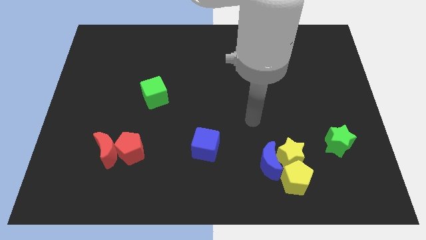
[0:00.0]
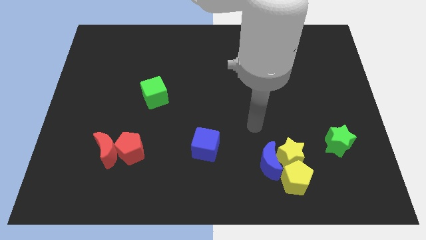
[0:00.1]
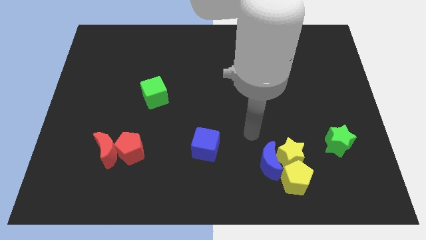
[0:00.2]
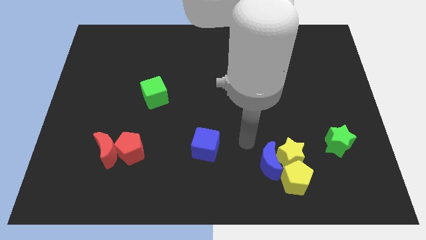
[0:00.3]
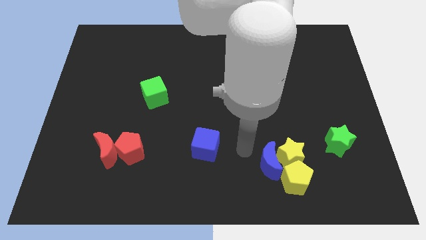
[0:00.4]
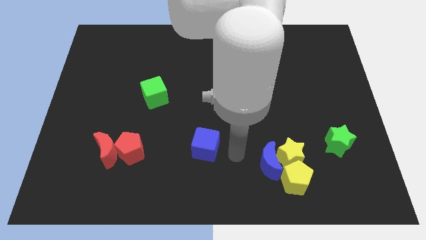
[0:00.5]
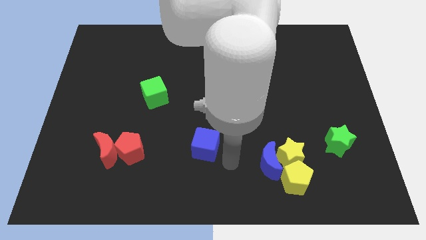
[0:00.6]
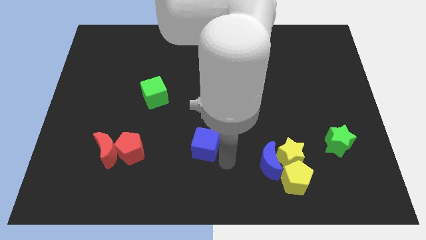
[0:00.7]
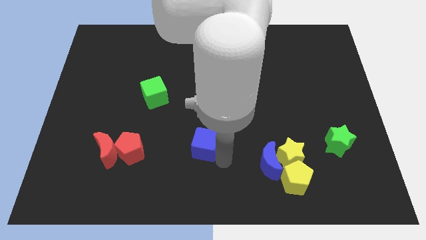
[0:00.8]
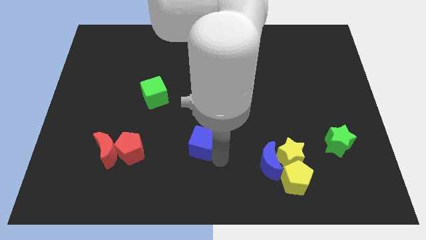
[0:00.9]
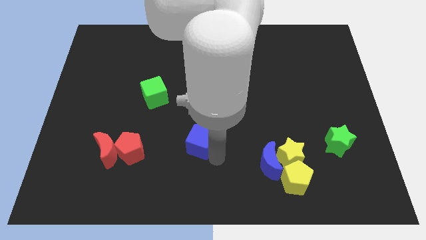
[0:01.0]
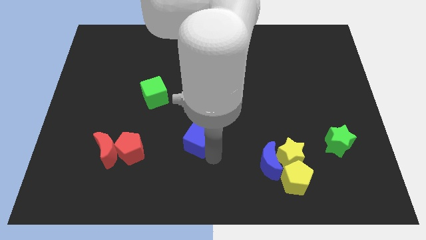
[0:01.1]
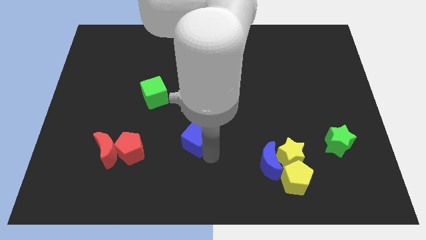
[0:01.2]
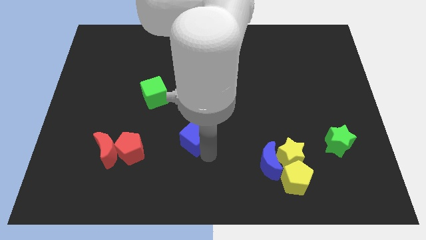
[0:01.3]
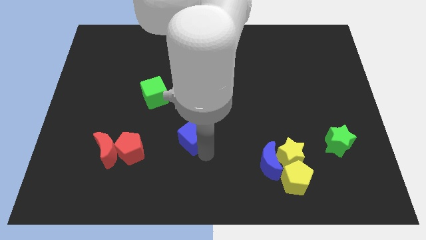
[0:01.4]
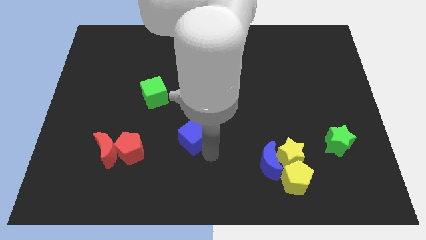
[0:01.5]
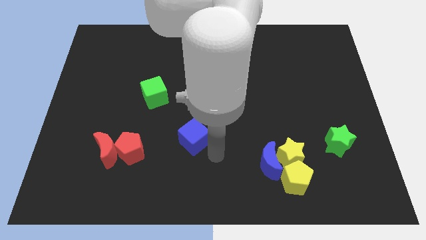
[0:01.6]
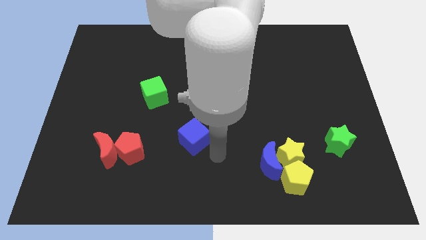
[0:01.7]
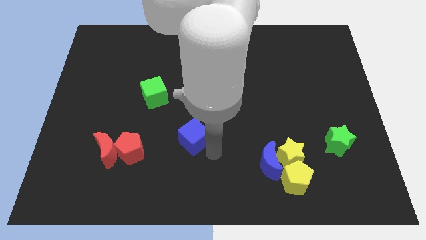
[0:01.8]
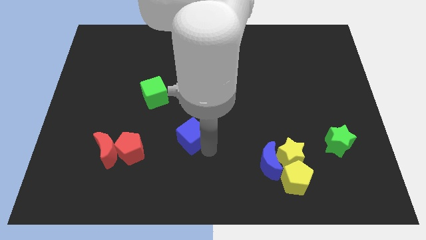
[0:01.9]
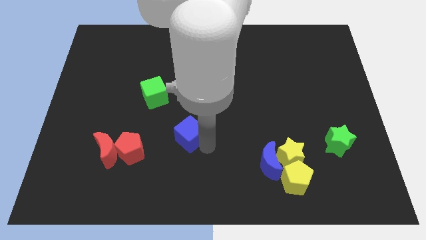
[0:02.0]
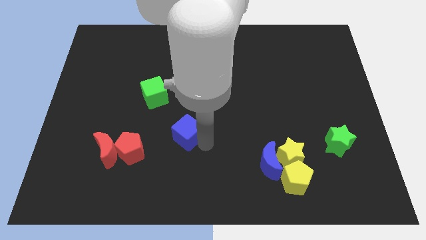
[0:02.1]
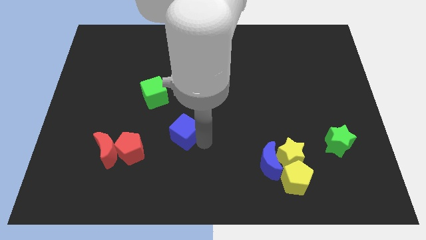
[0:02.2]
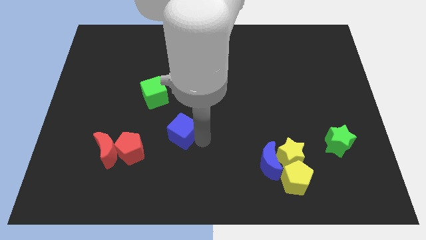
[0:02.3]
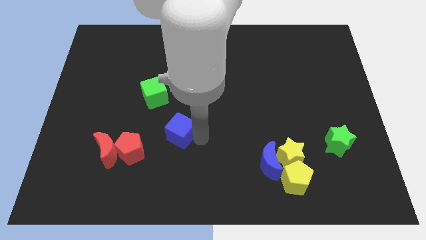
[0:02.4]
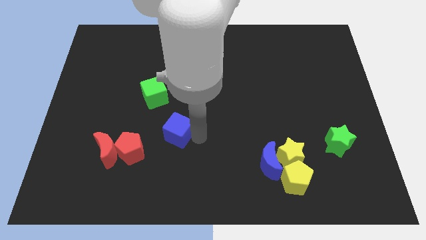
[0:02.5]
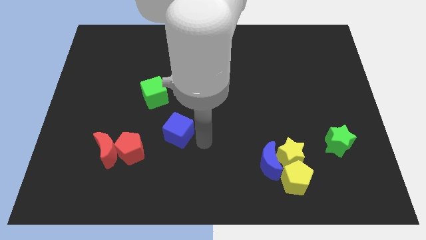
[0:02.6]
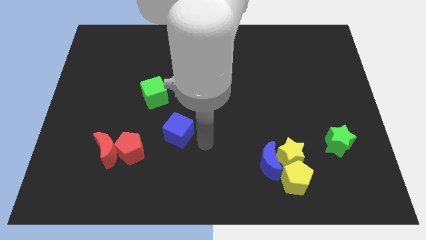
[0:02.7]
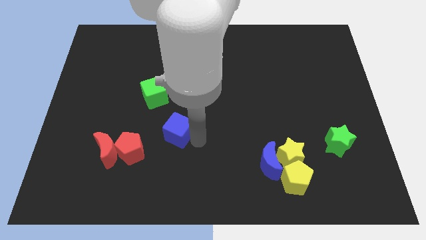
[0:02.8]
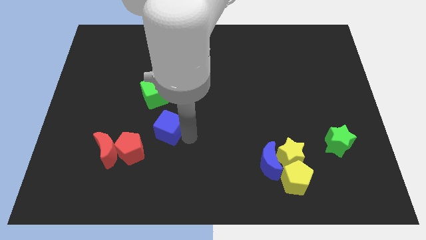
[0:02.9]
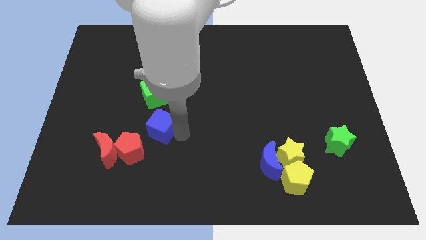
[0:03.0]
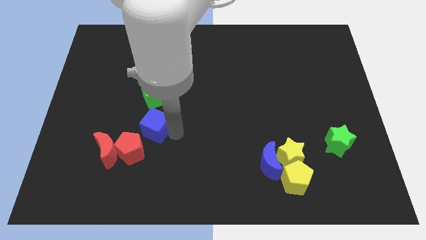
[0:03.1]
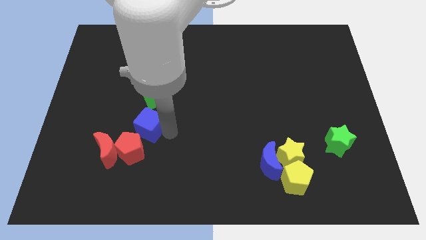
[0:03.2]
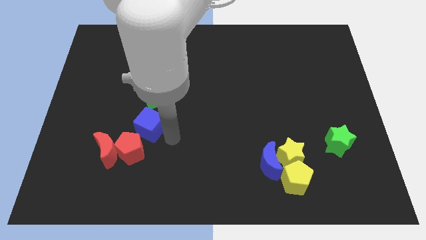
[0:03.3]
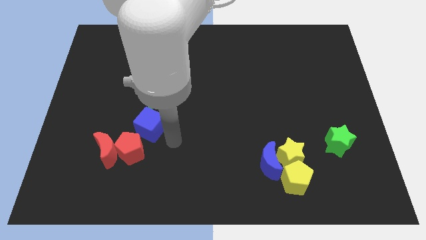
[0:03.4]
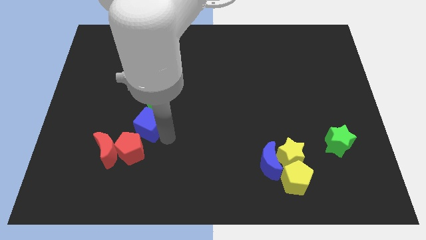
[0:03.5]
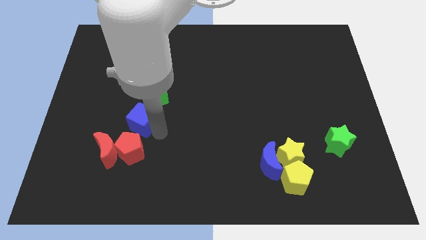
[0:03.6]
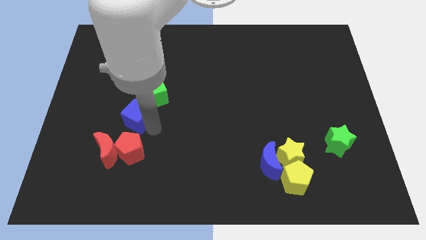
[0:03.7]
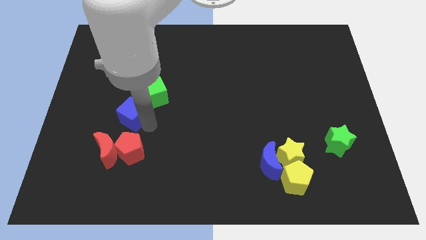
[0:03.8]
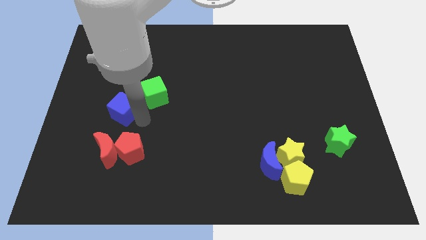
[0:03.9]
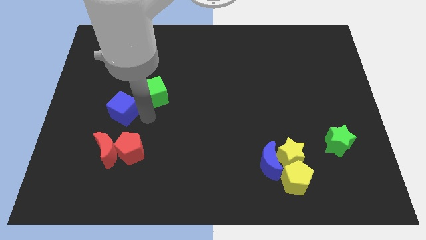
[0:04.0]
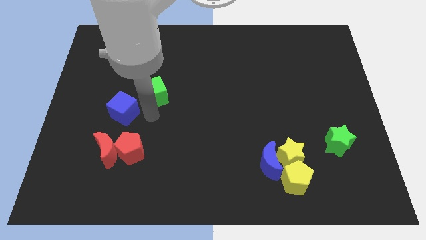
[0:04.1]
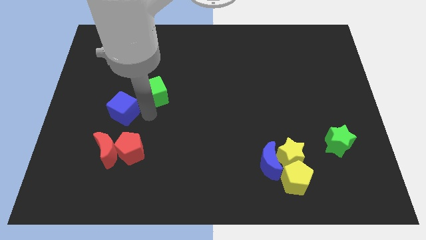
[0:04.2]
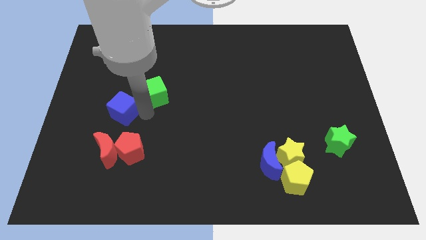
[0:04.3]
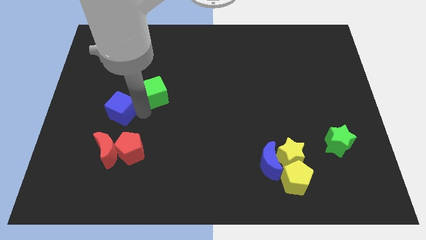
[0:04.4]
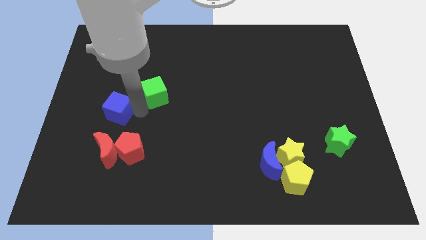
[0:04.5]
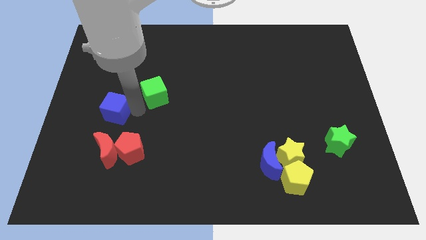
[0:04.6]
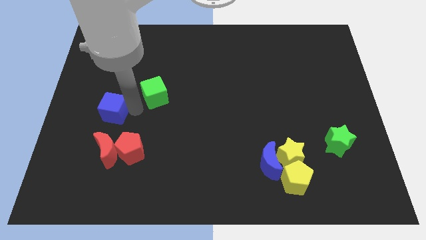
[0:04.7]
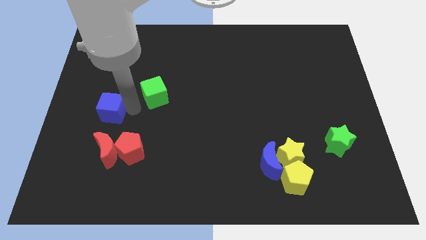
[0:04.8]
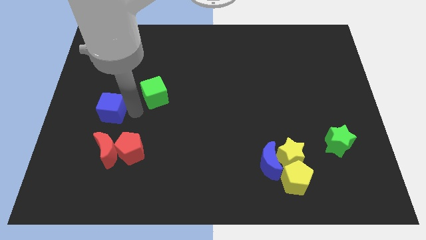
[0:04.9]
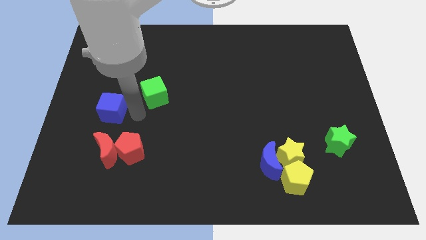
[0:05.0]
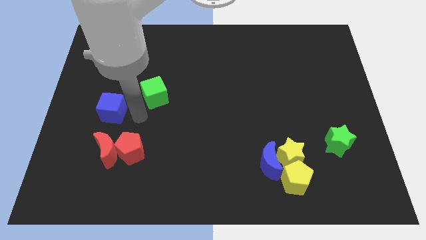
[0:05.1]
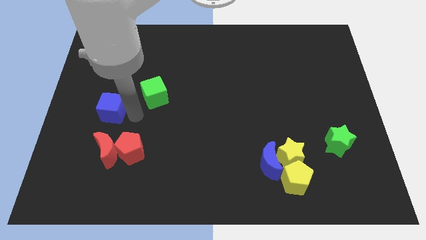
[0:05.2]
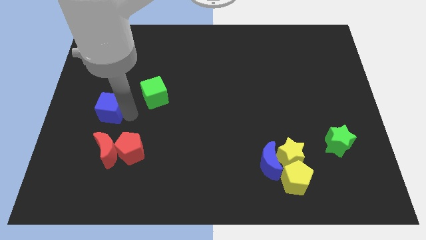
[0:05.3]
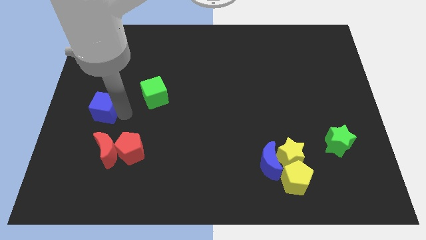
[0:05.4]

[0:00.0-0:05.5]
slide the blue cube to the left side

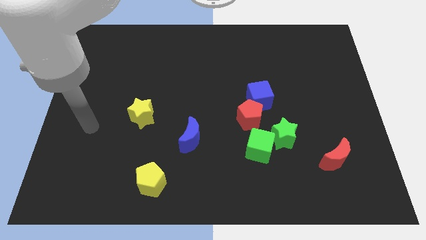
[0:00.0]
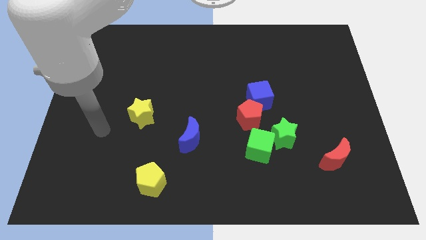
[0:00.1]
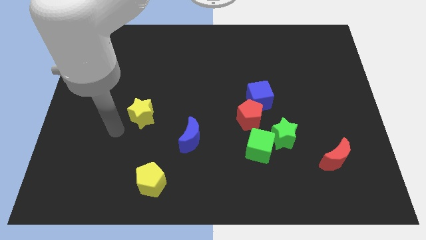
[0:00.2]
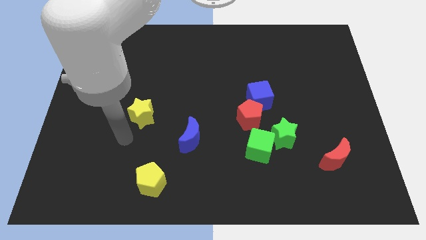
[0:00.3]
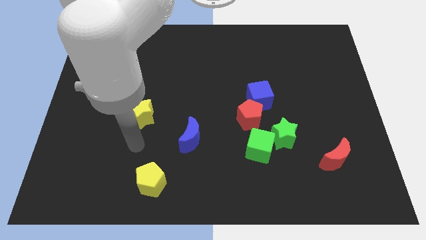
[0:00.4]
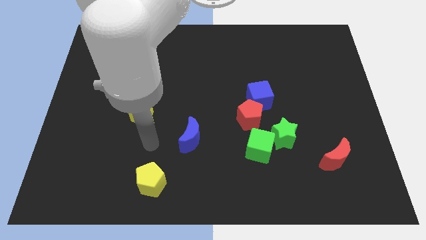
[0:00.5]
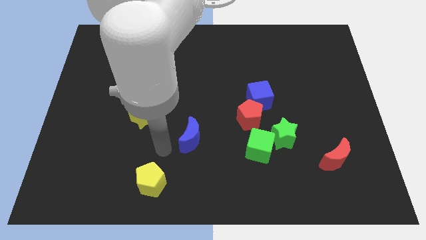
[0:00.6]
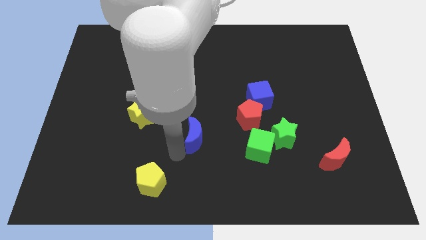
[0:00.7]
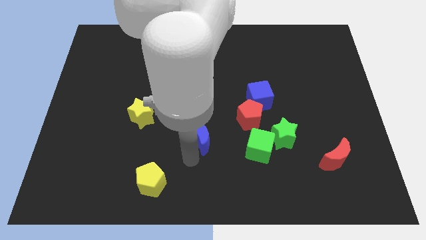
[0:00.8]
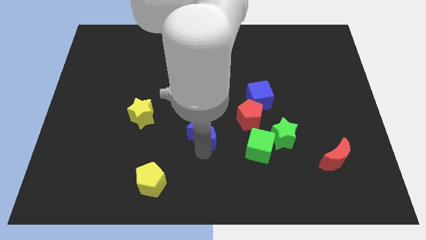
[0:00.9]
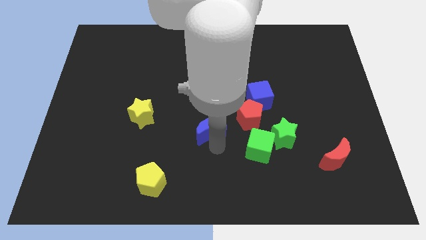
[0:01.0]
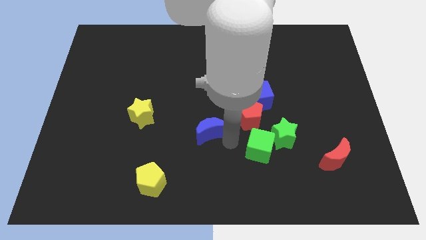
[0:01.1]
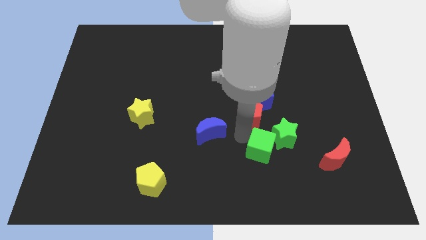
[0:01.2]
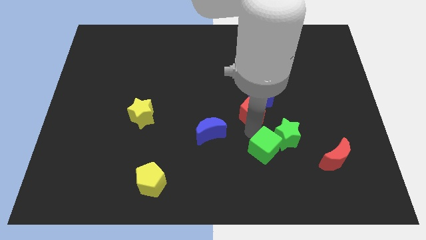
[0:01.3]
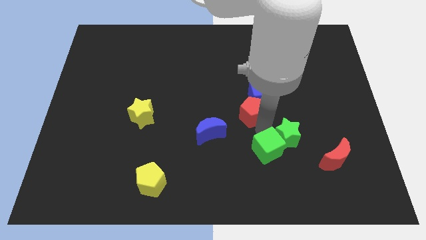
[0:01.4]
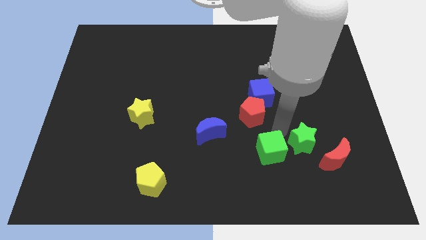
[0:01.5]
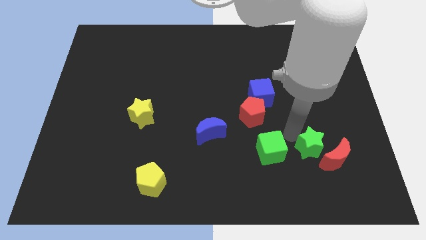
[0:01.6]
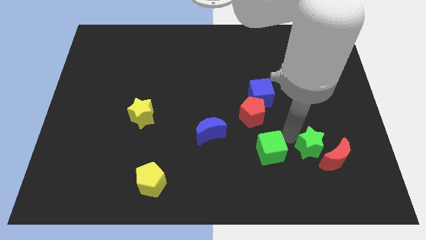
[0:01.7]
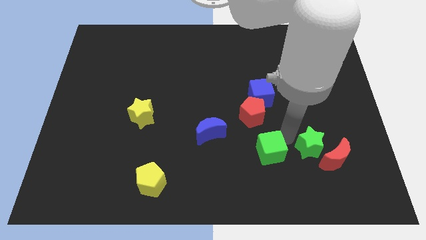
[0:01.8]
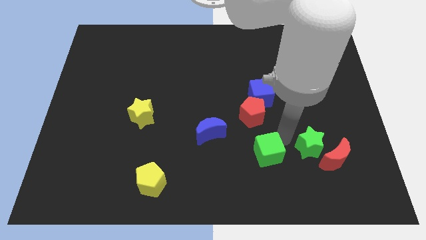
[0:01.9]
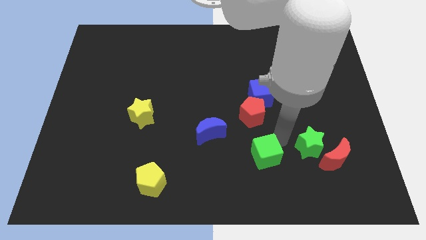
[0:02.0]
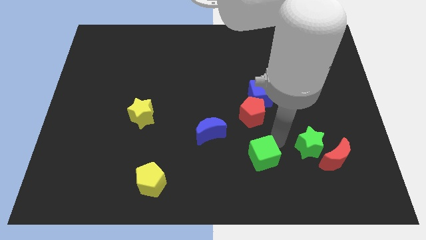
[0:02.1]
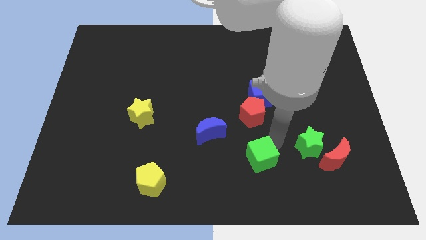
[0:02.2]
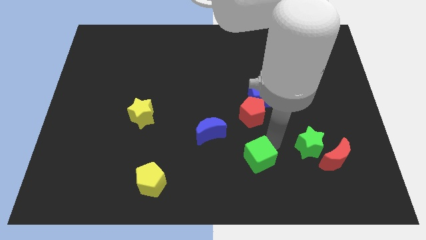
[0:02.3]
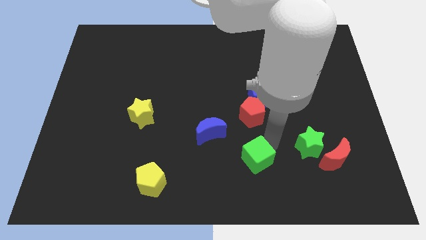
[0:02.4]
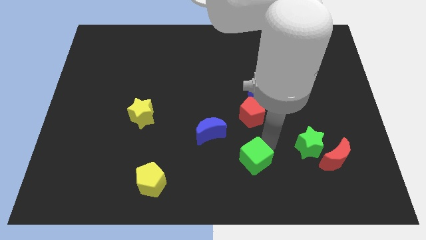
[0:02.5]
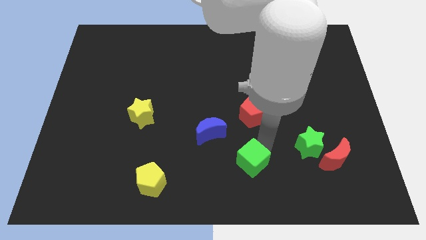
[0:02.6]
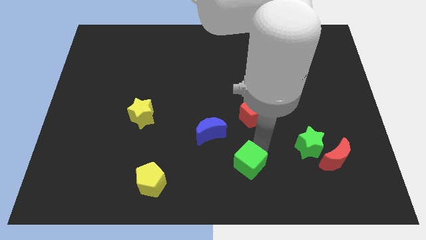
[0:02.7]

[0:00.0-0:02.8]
move the green cube to the bottom
